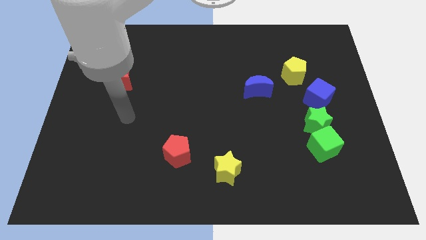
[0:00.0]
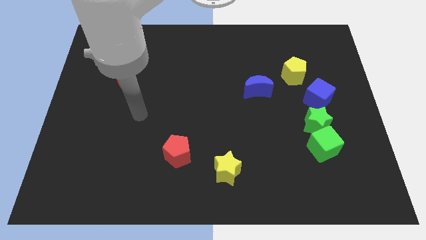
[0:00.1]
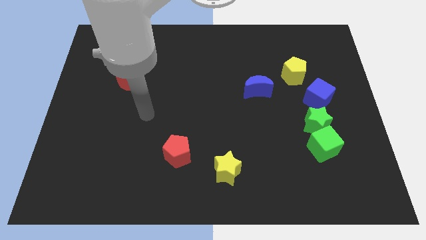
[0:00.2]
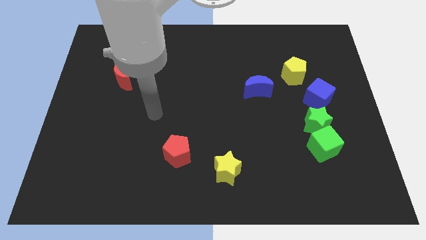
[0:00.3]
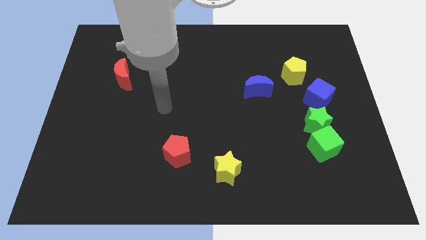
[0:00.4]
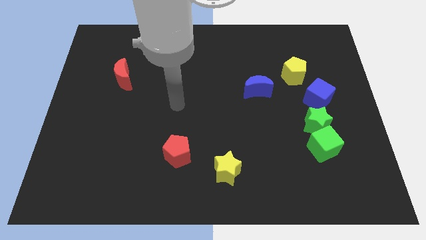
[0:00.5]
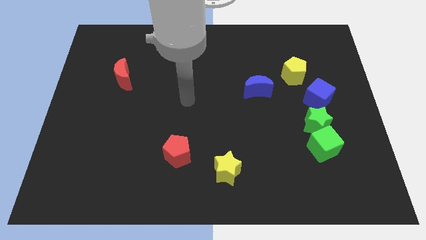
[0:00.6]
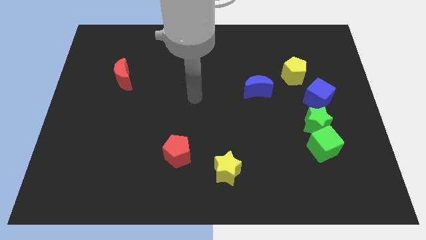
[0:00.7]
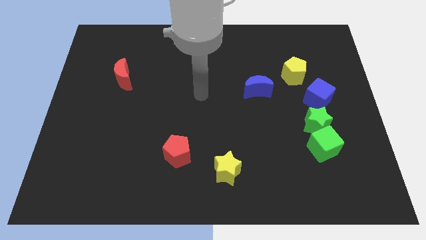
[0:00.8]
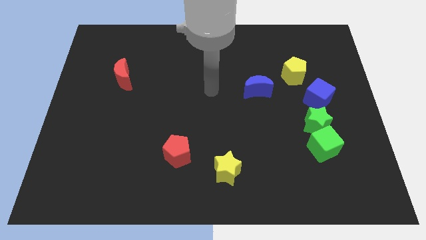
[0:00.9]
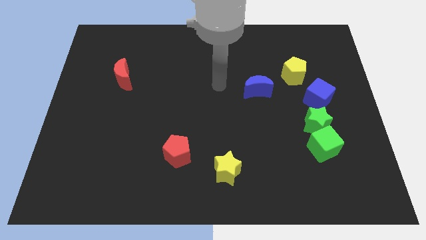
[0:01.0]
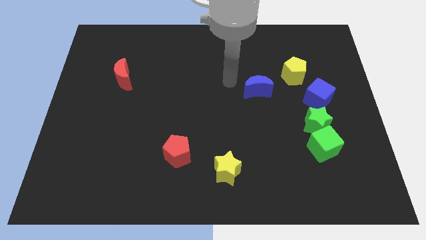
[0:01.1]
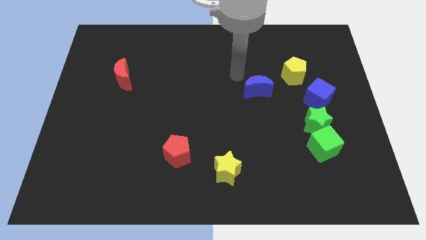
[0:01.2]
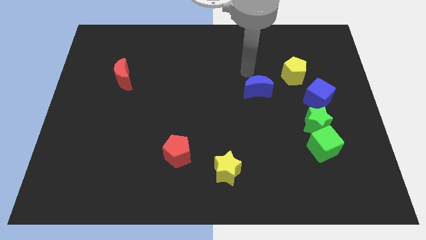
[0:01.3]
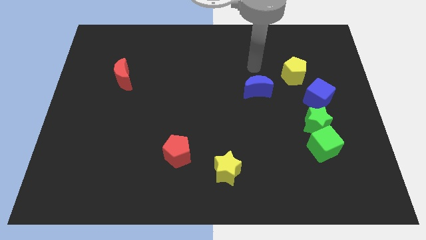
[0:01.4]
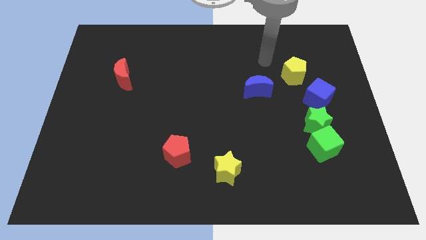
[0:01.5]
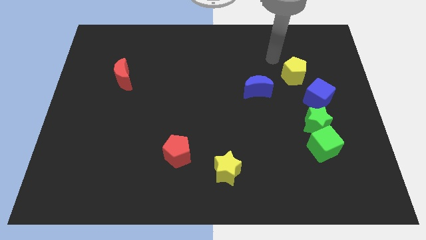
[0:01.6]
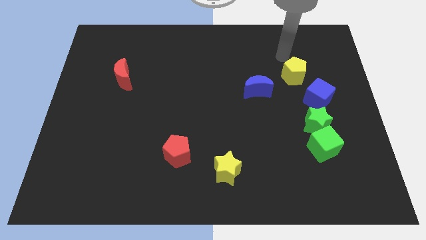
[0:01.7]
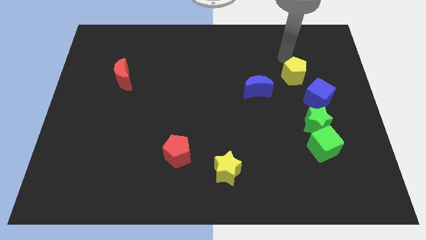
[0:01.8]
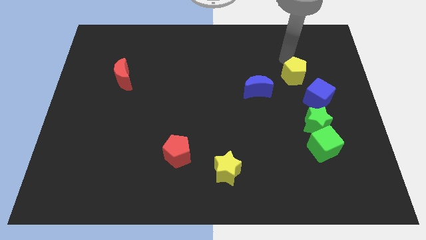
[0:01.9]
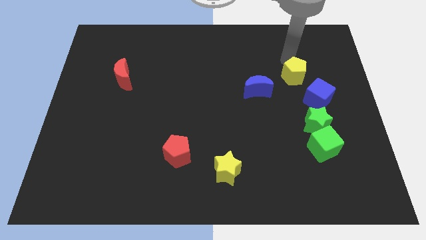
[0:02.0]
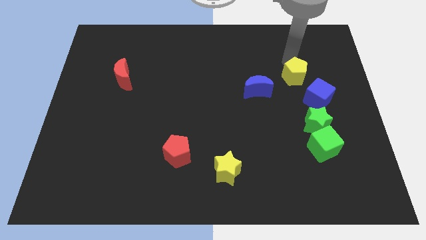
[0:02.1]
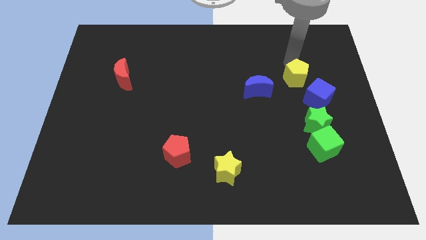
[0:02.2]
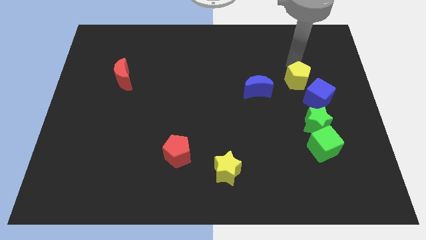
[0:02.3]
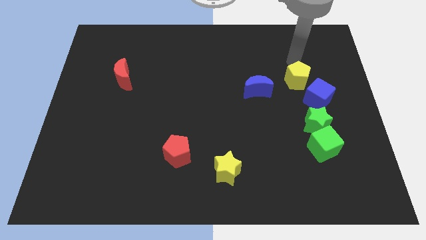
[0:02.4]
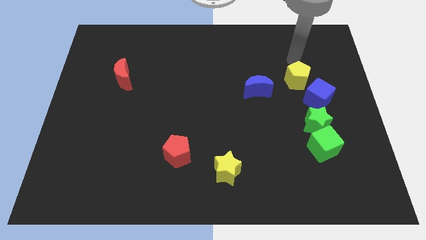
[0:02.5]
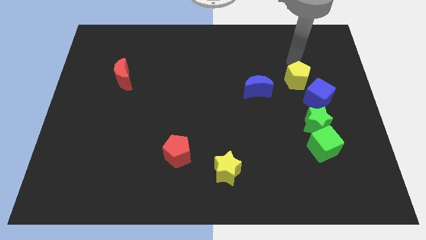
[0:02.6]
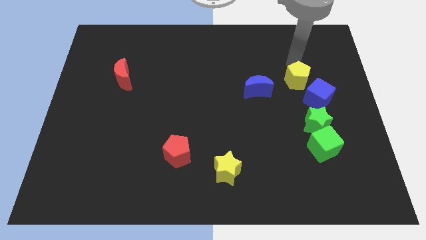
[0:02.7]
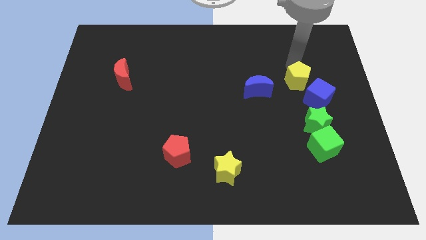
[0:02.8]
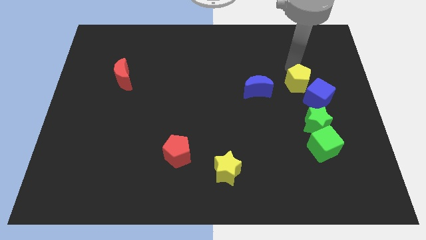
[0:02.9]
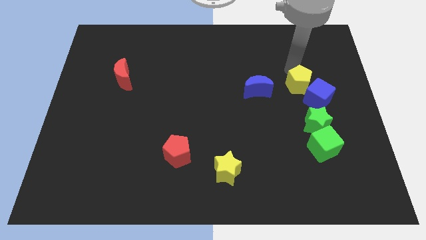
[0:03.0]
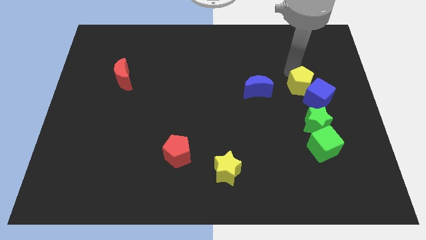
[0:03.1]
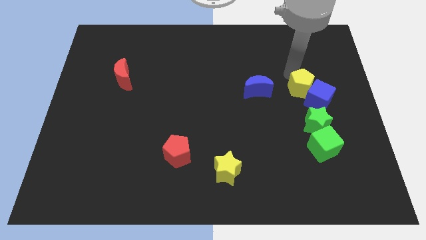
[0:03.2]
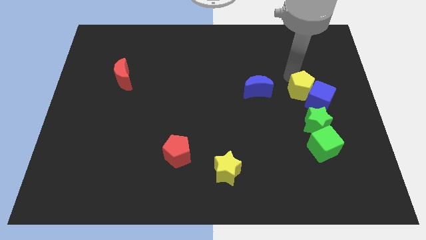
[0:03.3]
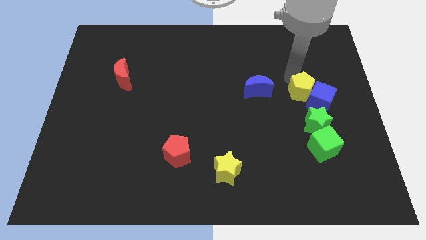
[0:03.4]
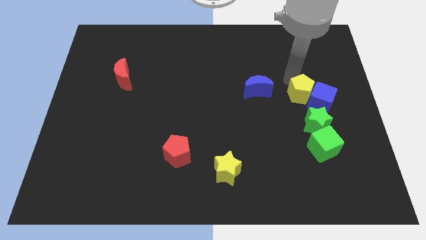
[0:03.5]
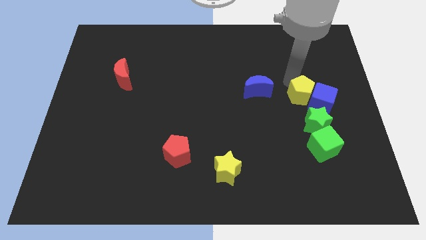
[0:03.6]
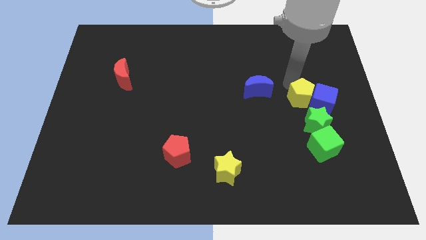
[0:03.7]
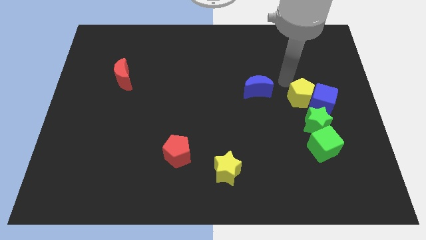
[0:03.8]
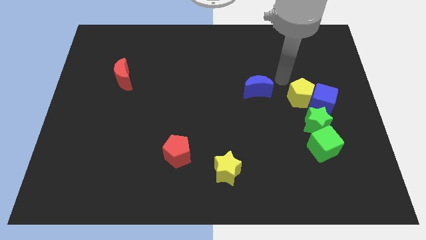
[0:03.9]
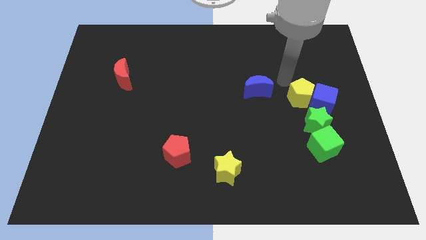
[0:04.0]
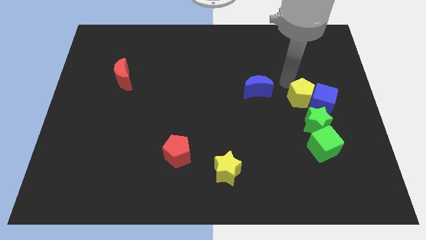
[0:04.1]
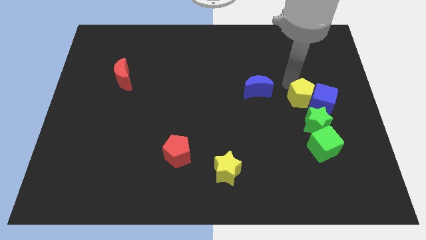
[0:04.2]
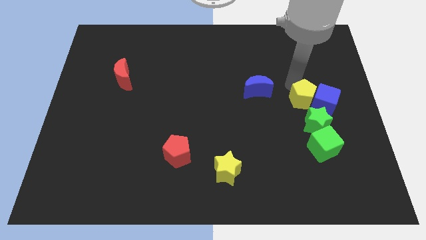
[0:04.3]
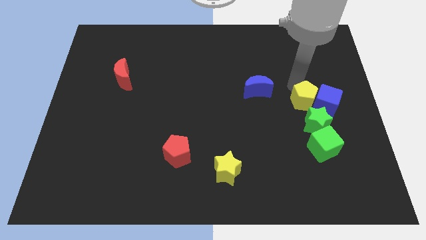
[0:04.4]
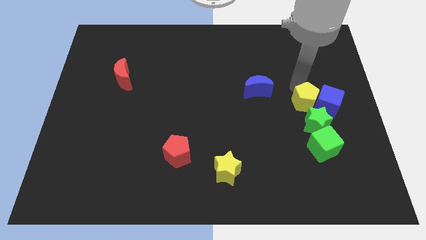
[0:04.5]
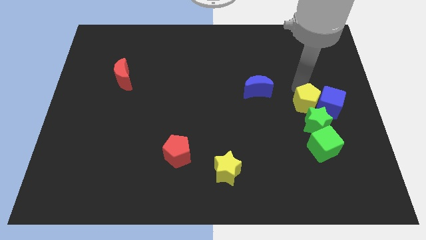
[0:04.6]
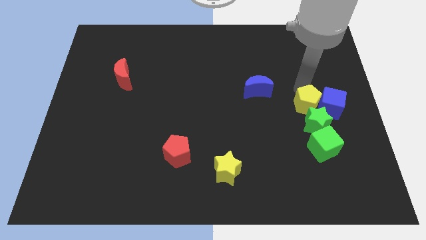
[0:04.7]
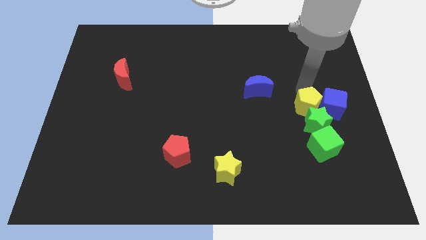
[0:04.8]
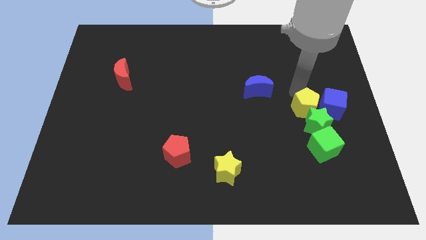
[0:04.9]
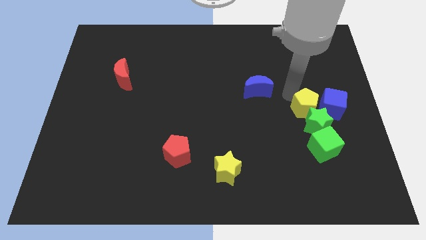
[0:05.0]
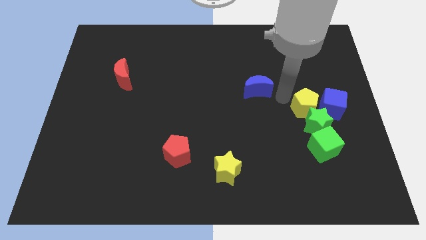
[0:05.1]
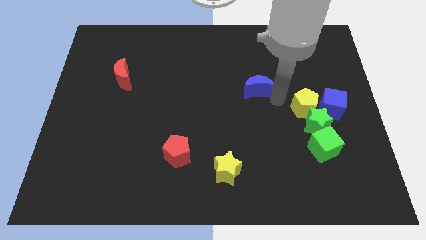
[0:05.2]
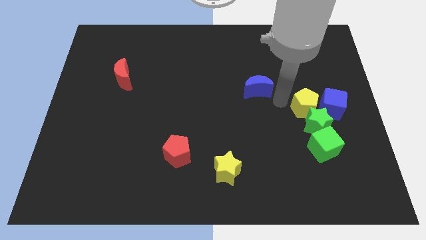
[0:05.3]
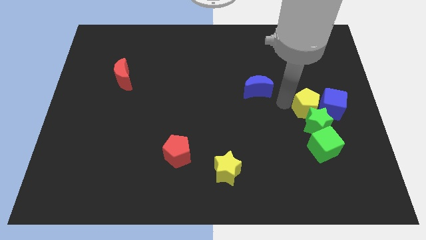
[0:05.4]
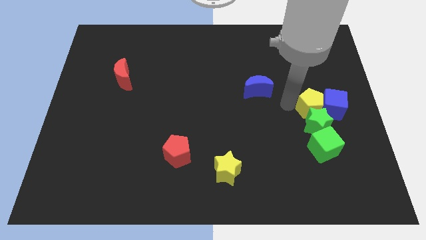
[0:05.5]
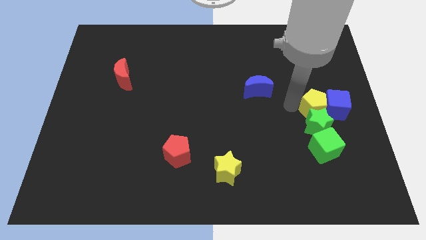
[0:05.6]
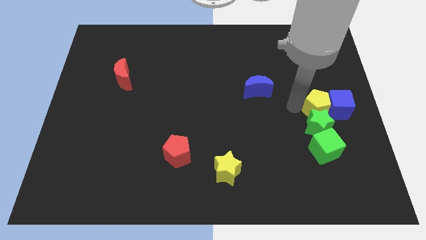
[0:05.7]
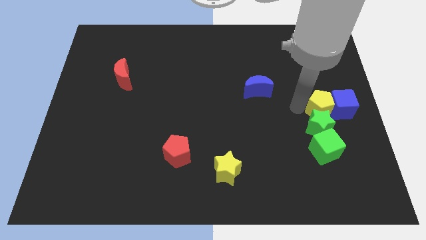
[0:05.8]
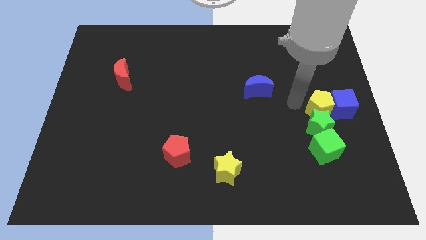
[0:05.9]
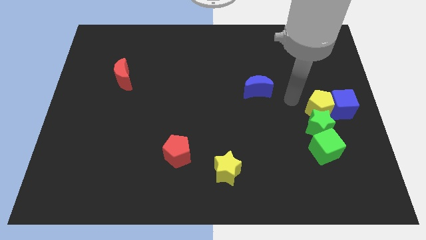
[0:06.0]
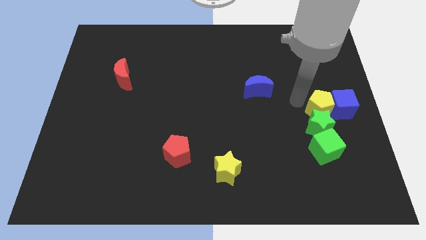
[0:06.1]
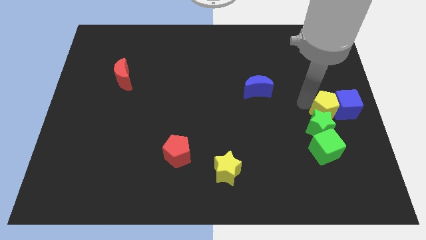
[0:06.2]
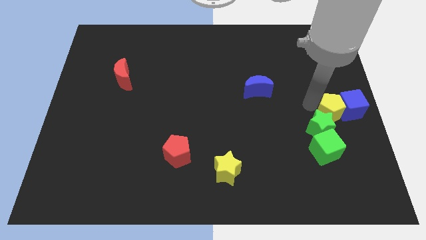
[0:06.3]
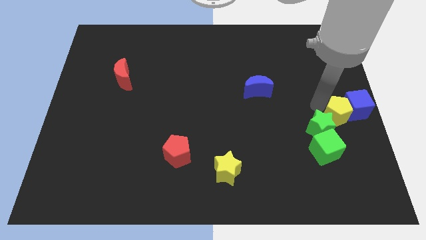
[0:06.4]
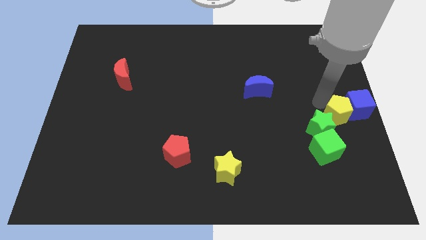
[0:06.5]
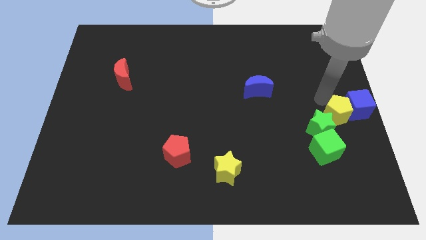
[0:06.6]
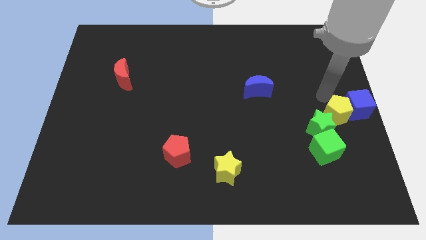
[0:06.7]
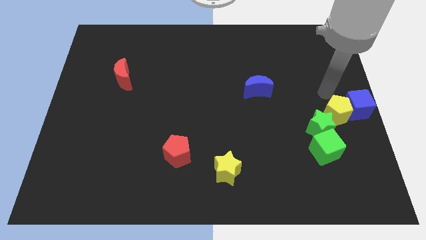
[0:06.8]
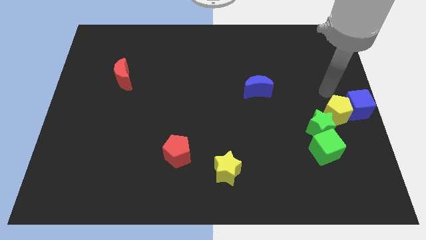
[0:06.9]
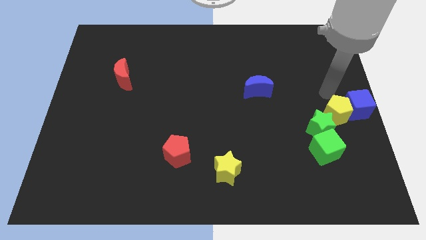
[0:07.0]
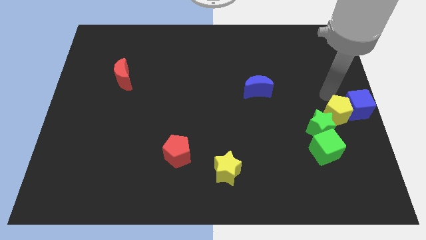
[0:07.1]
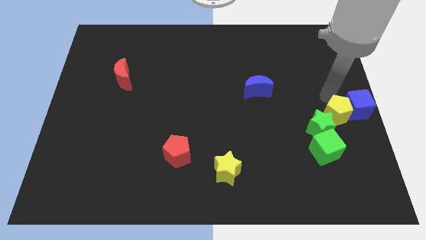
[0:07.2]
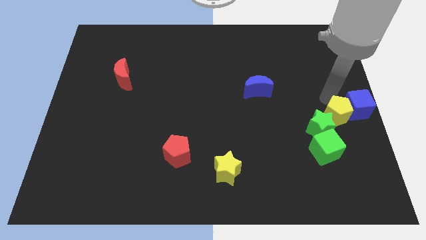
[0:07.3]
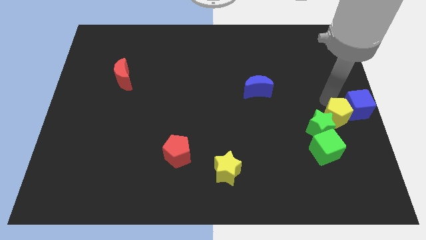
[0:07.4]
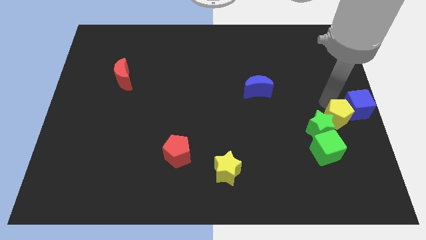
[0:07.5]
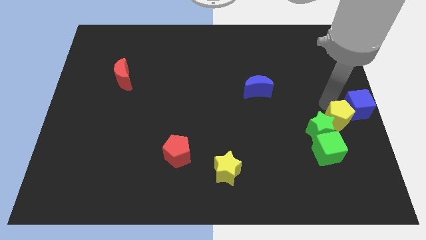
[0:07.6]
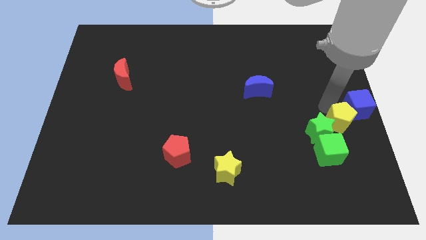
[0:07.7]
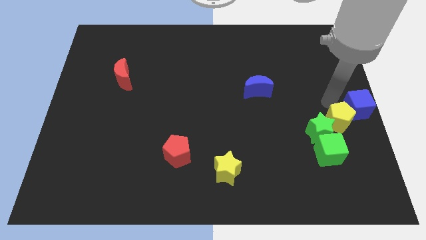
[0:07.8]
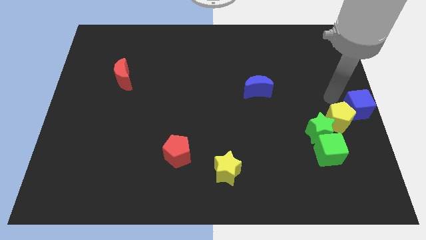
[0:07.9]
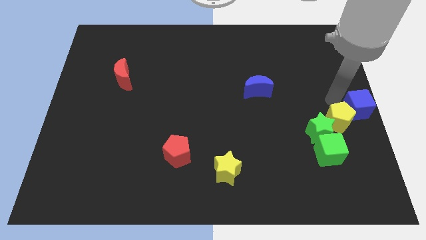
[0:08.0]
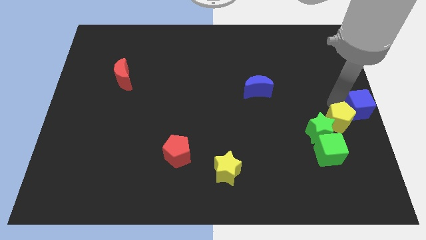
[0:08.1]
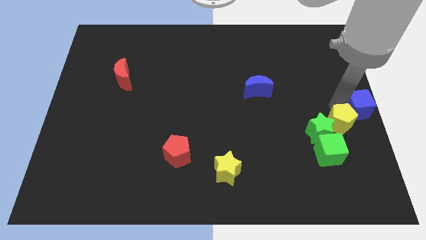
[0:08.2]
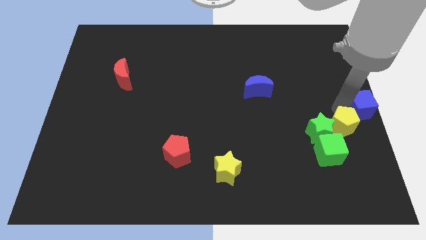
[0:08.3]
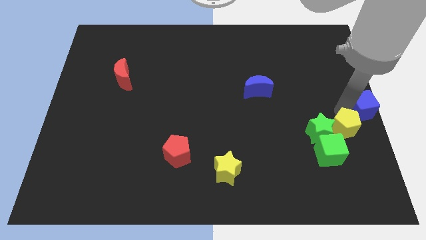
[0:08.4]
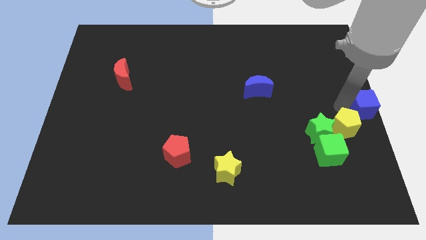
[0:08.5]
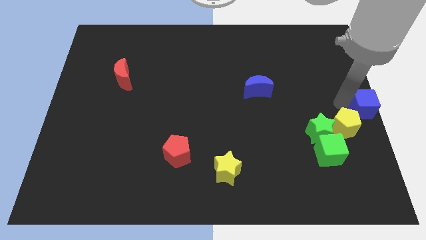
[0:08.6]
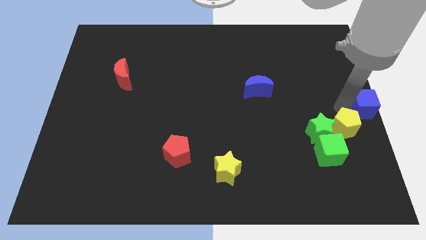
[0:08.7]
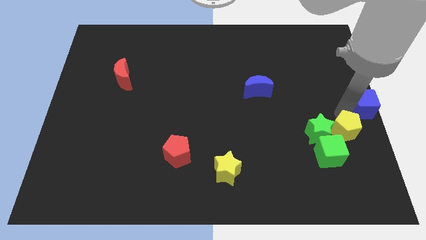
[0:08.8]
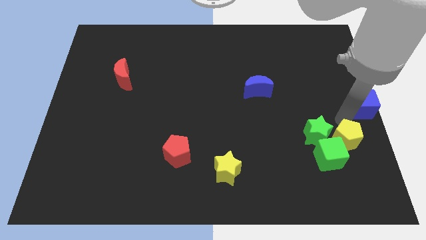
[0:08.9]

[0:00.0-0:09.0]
slide the yellow pentagon diagonally down and to the right of the green star
